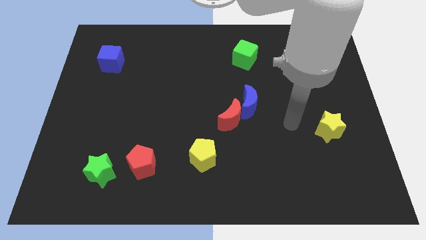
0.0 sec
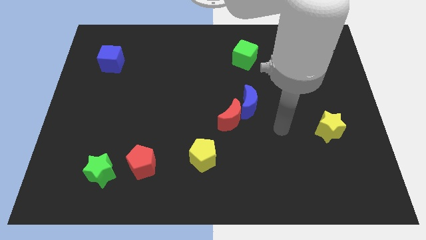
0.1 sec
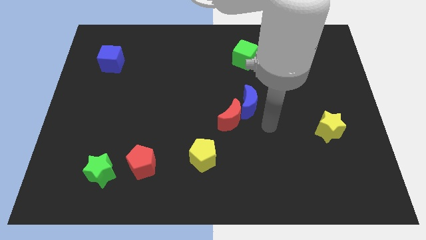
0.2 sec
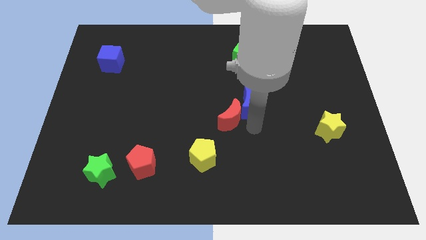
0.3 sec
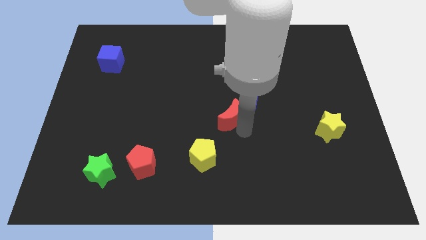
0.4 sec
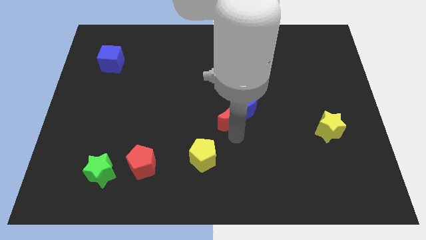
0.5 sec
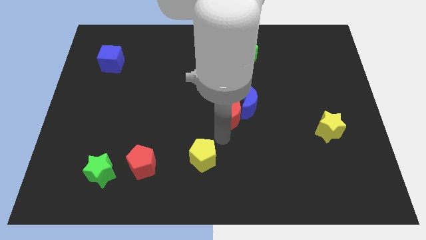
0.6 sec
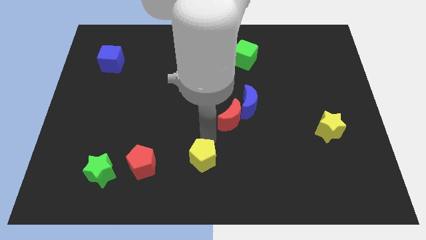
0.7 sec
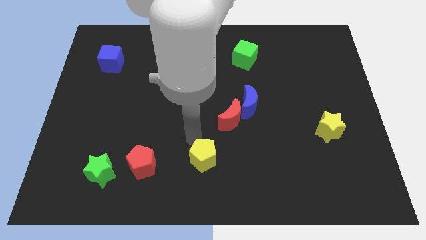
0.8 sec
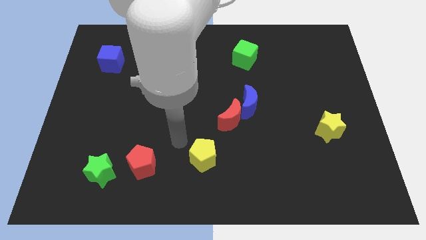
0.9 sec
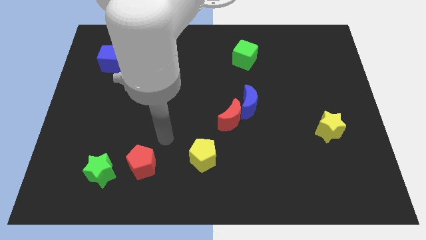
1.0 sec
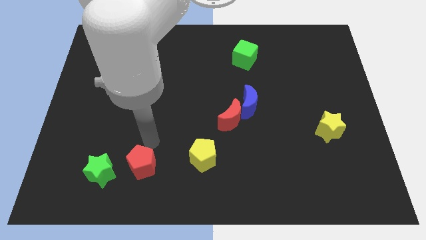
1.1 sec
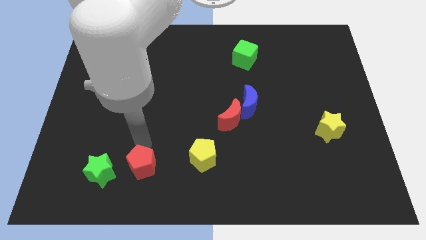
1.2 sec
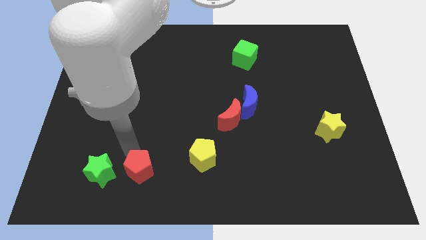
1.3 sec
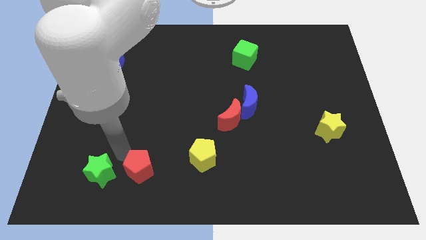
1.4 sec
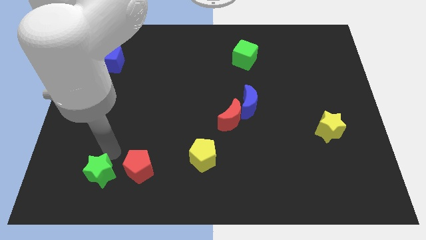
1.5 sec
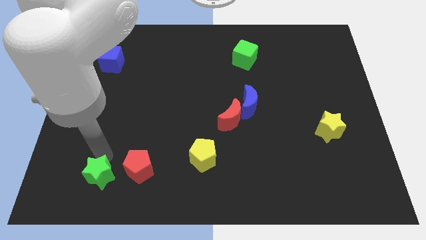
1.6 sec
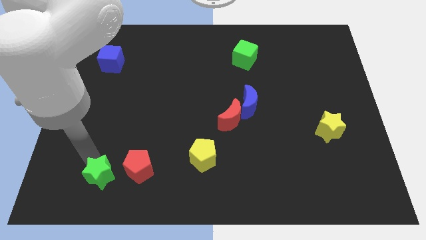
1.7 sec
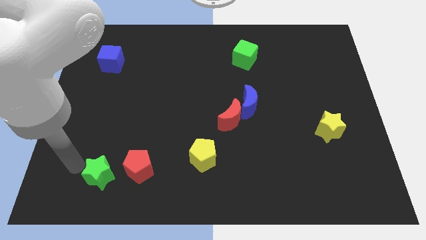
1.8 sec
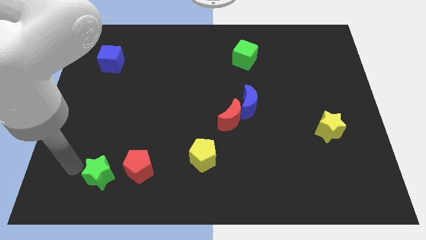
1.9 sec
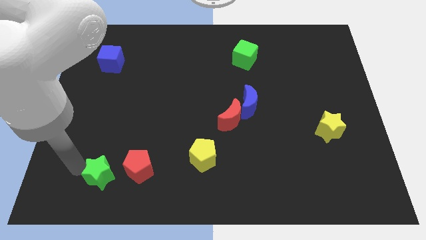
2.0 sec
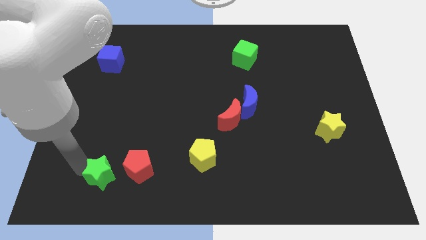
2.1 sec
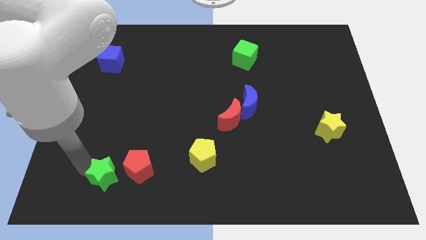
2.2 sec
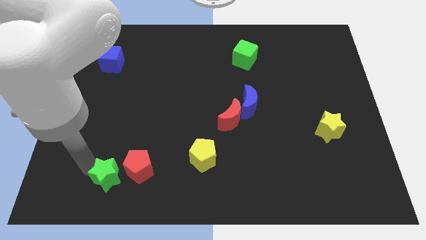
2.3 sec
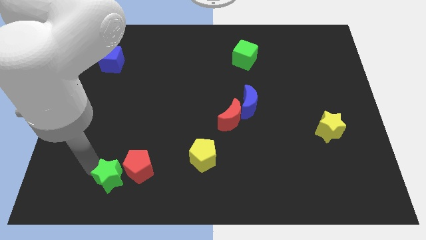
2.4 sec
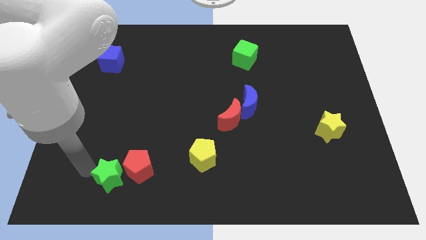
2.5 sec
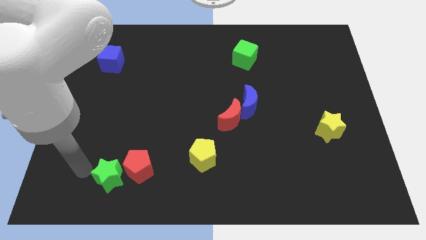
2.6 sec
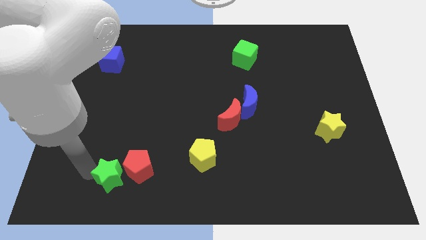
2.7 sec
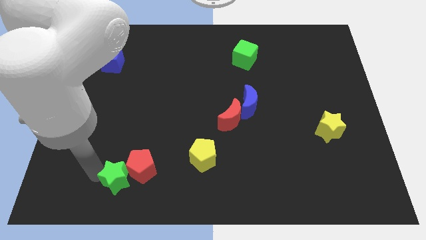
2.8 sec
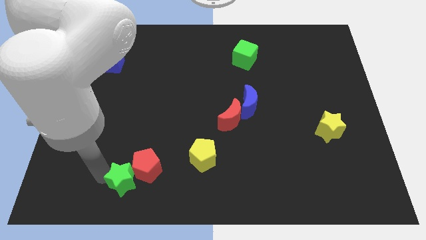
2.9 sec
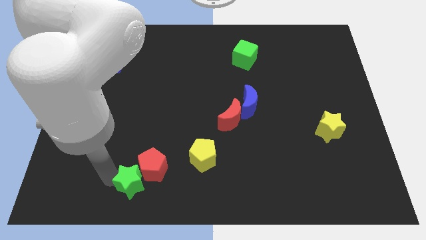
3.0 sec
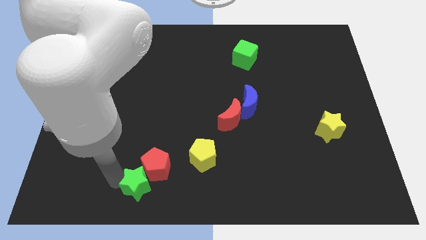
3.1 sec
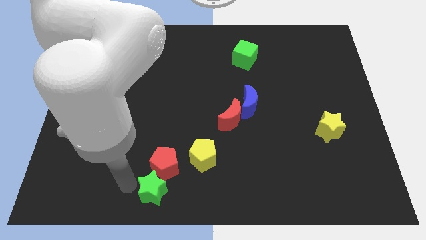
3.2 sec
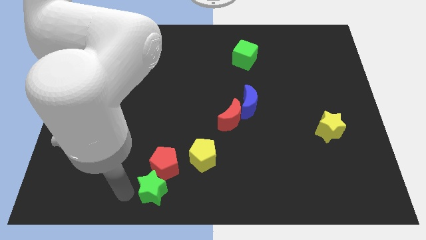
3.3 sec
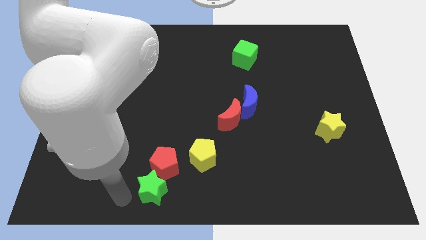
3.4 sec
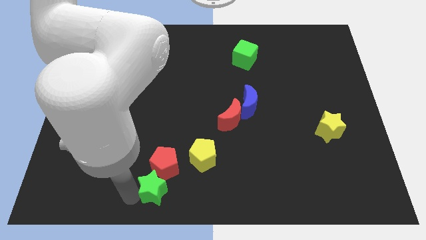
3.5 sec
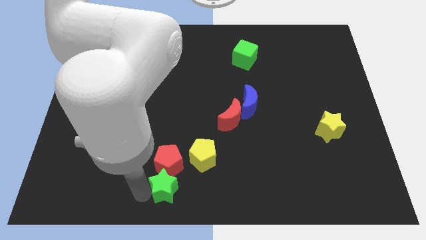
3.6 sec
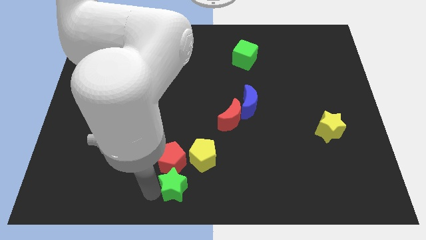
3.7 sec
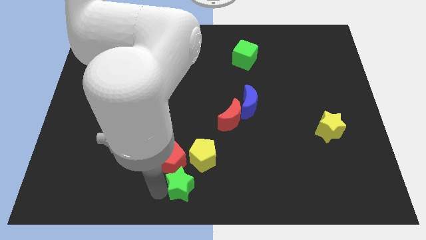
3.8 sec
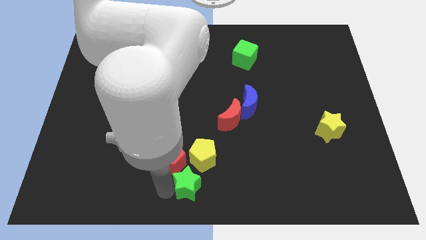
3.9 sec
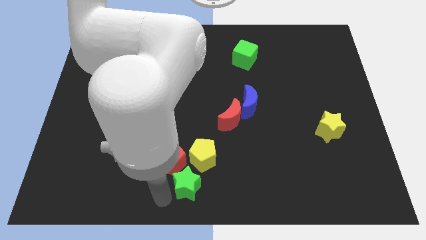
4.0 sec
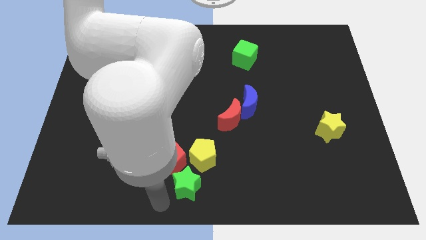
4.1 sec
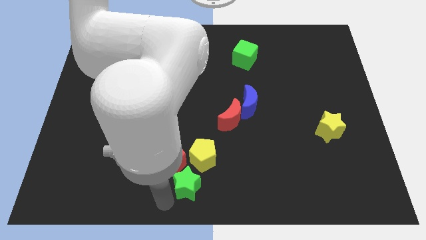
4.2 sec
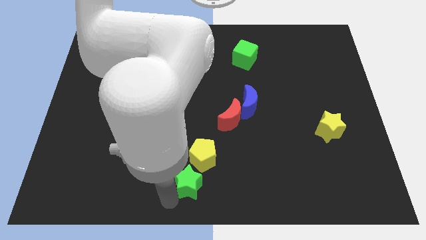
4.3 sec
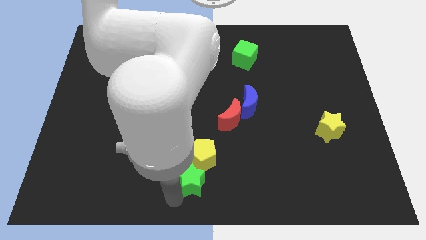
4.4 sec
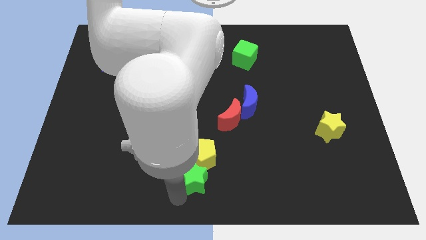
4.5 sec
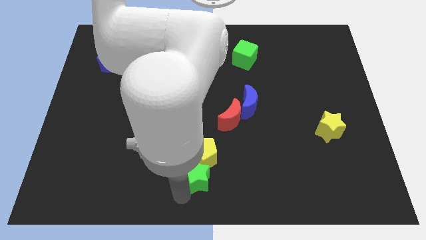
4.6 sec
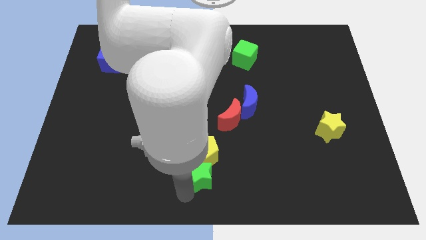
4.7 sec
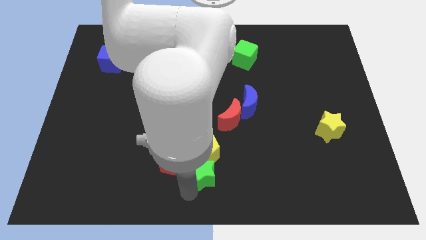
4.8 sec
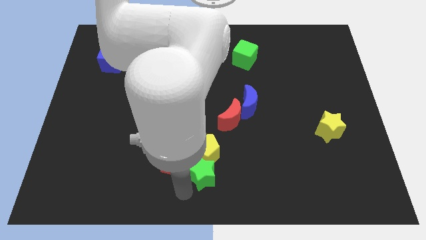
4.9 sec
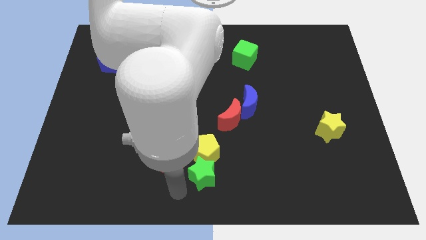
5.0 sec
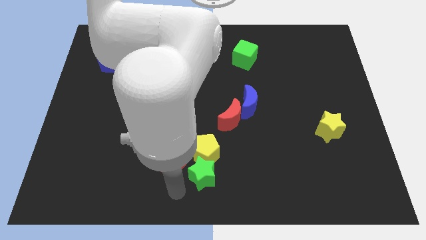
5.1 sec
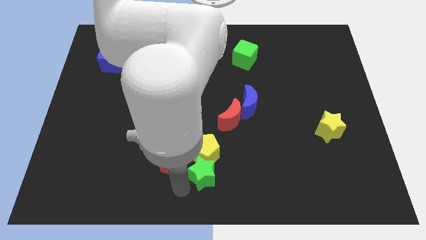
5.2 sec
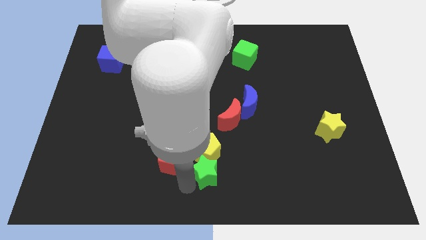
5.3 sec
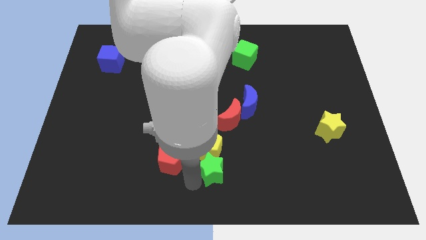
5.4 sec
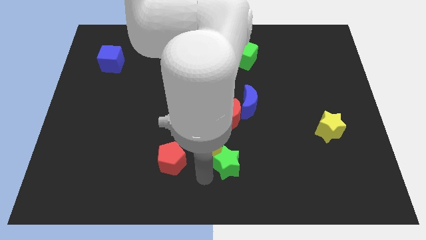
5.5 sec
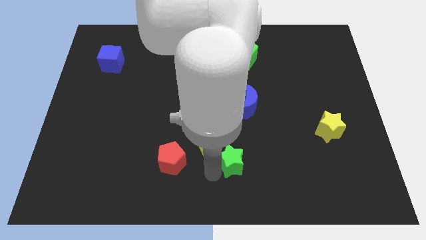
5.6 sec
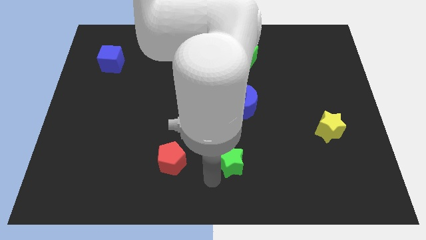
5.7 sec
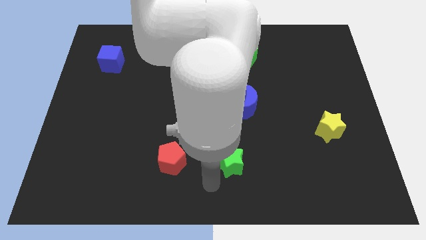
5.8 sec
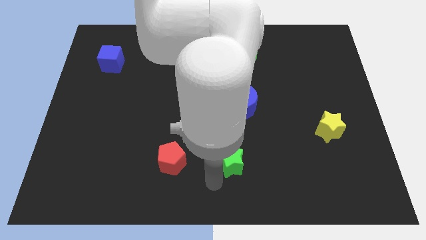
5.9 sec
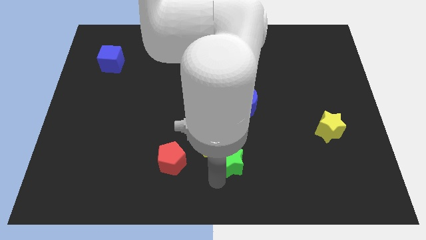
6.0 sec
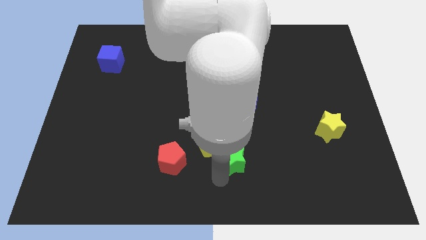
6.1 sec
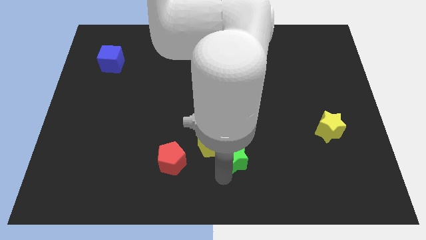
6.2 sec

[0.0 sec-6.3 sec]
slide the green star below the blue moon
